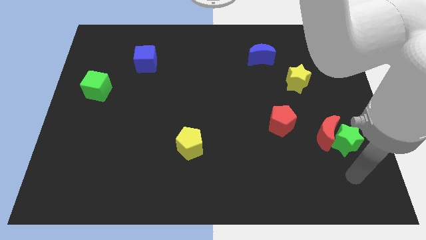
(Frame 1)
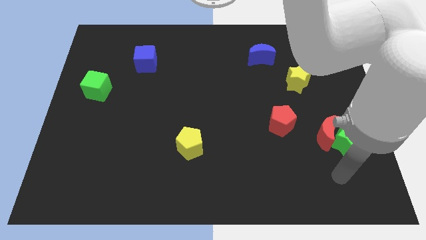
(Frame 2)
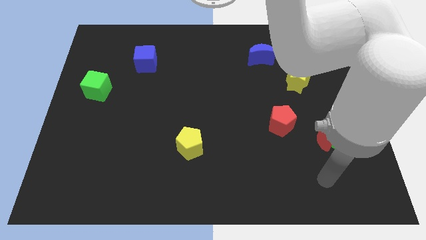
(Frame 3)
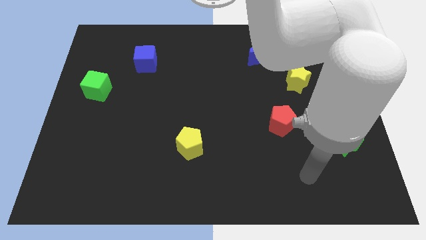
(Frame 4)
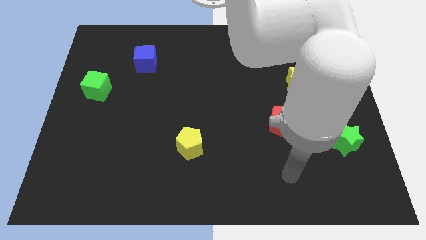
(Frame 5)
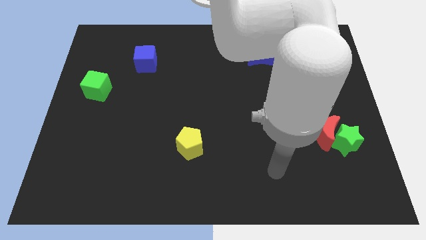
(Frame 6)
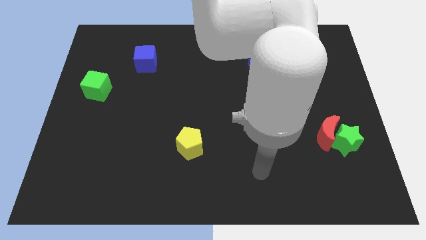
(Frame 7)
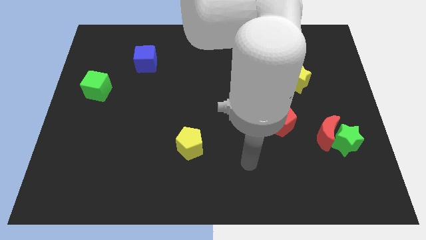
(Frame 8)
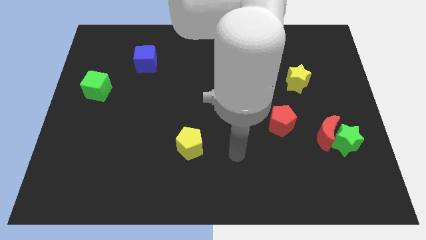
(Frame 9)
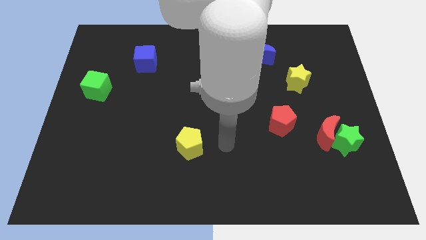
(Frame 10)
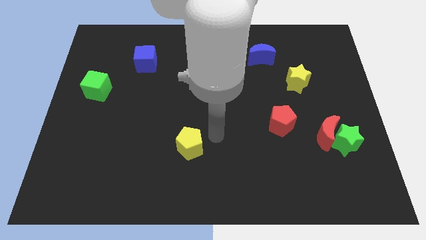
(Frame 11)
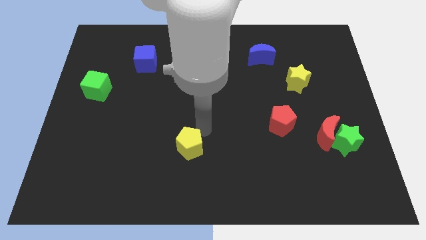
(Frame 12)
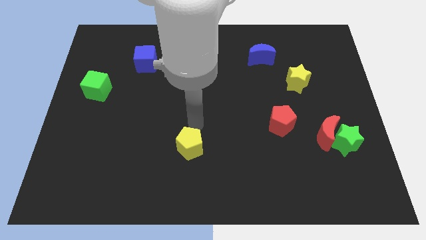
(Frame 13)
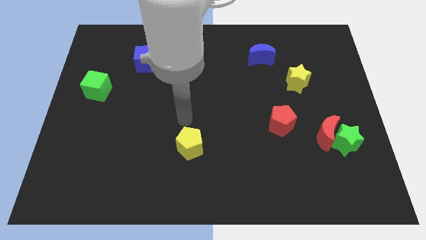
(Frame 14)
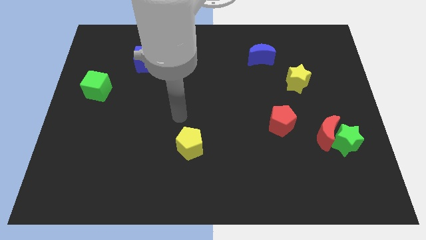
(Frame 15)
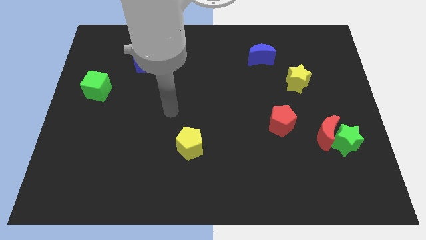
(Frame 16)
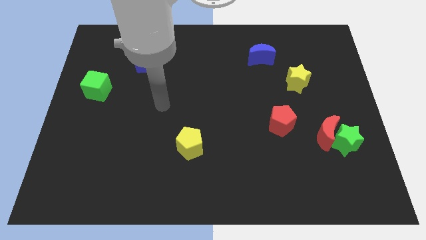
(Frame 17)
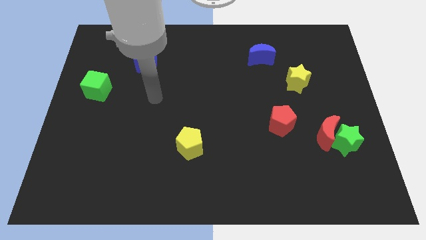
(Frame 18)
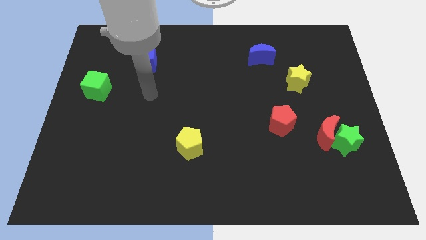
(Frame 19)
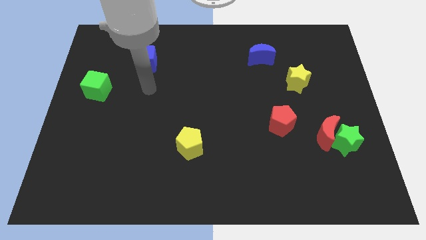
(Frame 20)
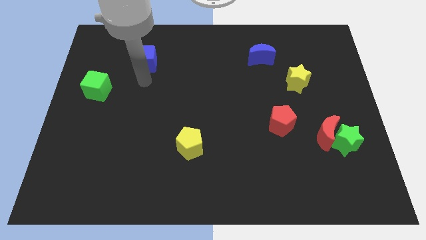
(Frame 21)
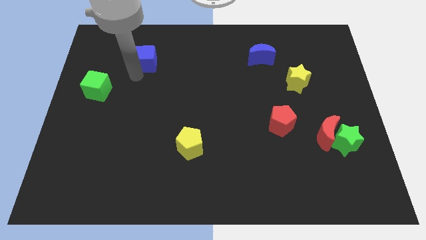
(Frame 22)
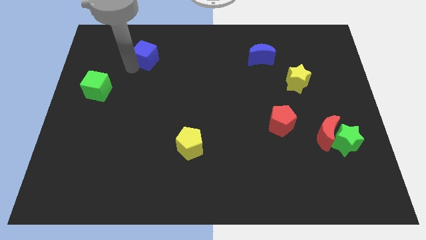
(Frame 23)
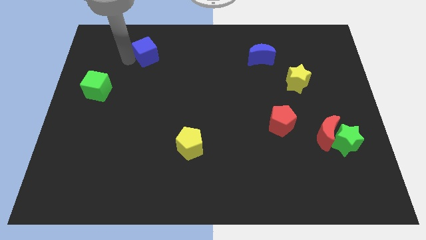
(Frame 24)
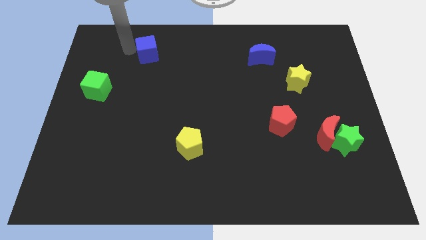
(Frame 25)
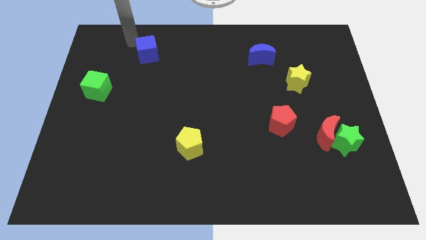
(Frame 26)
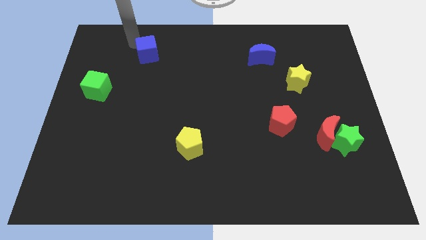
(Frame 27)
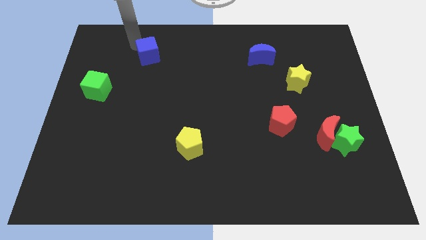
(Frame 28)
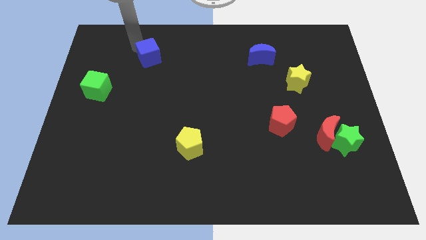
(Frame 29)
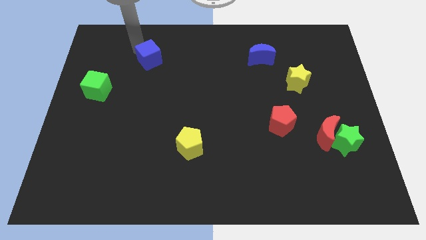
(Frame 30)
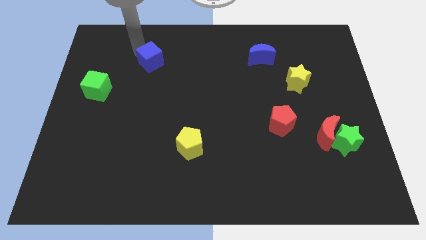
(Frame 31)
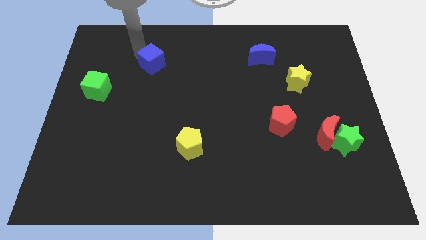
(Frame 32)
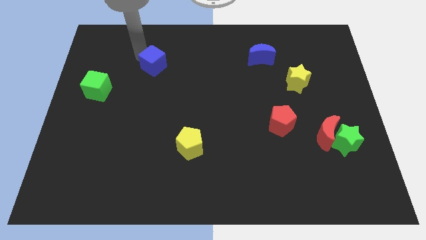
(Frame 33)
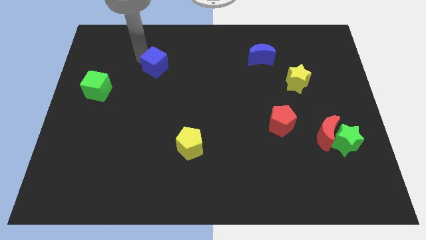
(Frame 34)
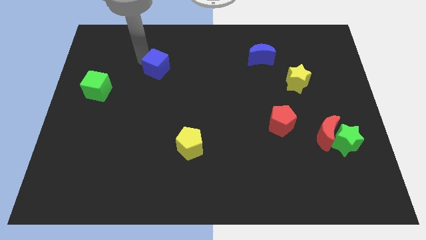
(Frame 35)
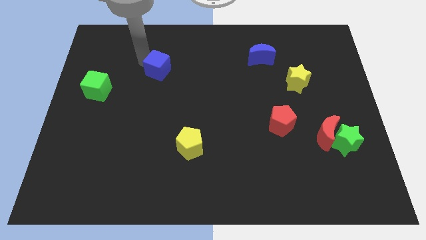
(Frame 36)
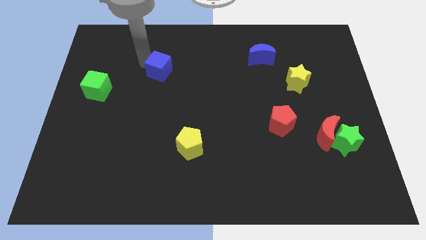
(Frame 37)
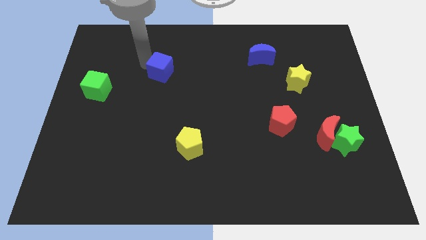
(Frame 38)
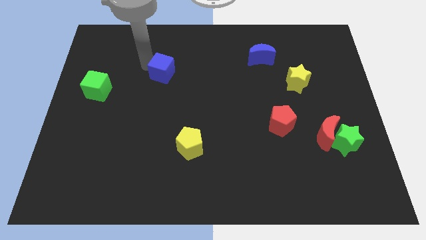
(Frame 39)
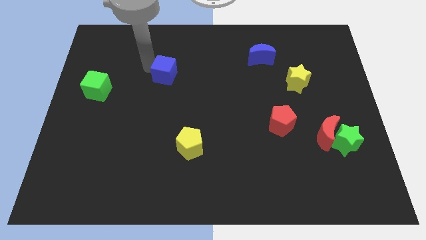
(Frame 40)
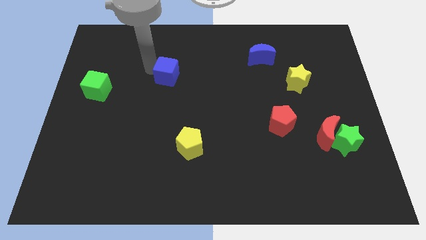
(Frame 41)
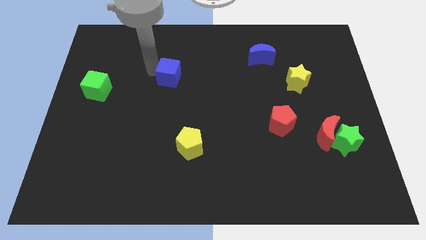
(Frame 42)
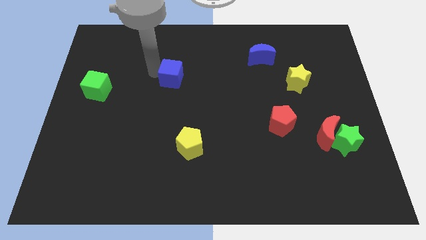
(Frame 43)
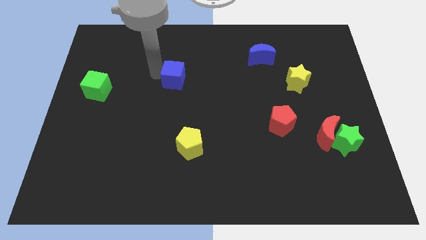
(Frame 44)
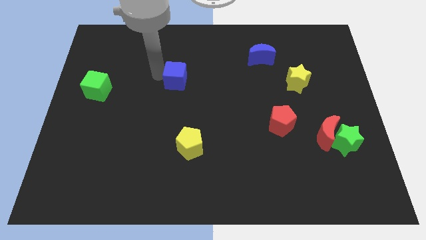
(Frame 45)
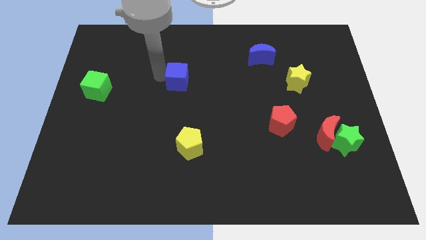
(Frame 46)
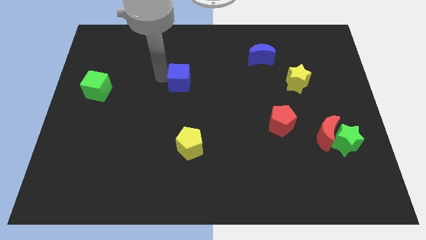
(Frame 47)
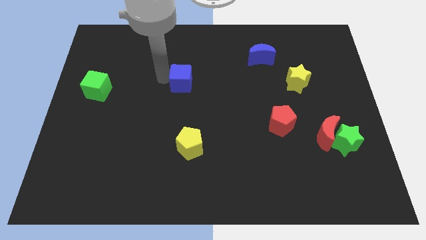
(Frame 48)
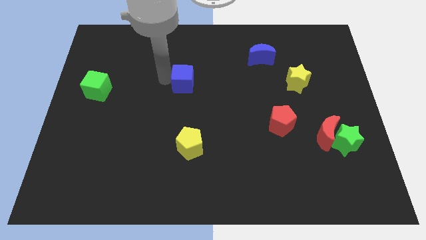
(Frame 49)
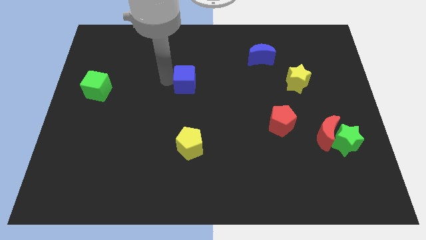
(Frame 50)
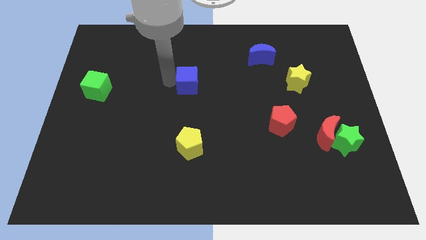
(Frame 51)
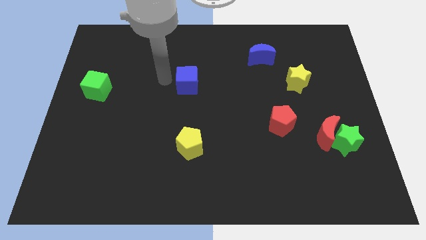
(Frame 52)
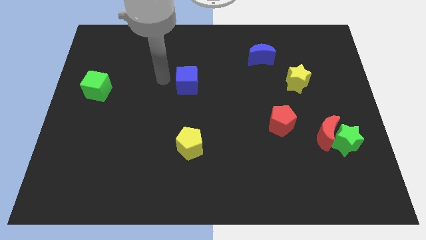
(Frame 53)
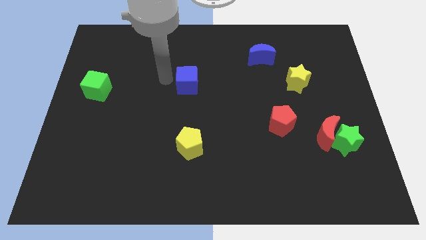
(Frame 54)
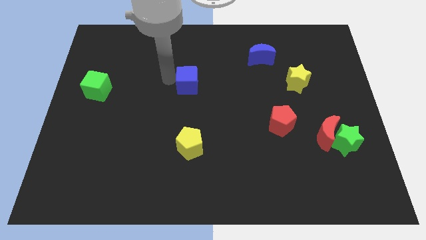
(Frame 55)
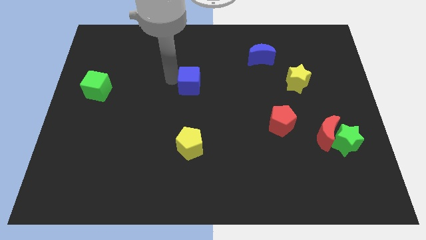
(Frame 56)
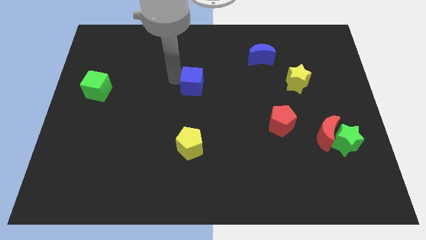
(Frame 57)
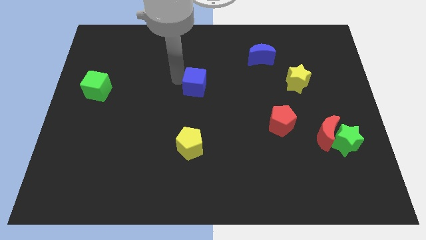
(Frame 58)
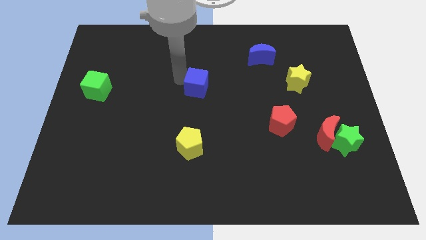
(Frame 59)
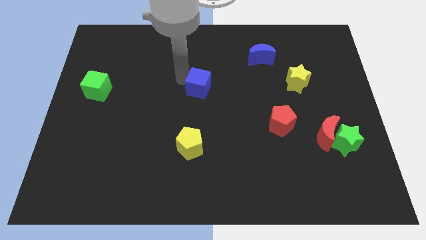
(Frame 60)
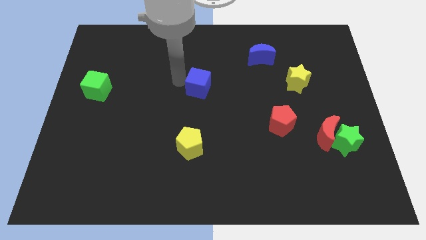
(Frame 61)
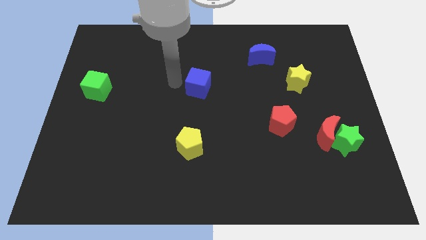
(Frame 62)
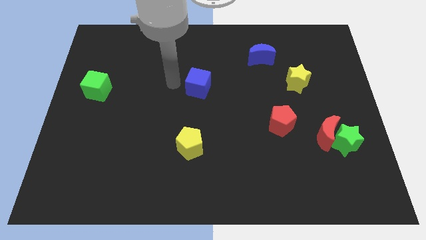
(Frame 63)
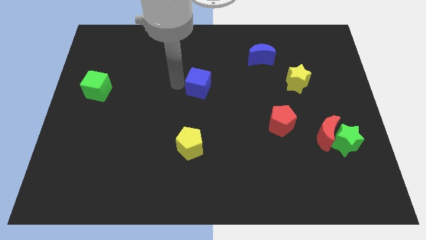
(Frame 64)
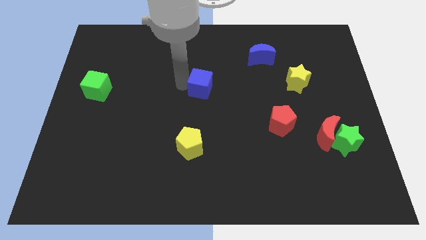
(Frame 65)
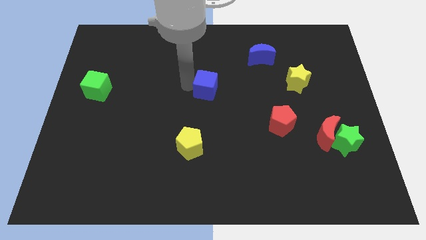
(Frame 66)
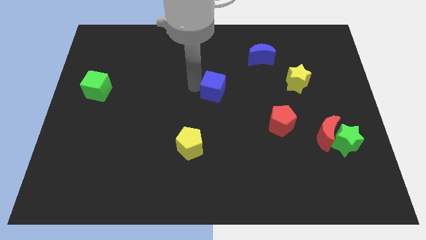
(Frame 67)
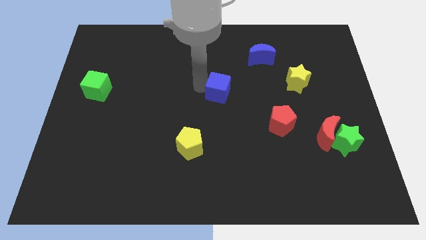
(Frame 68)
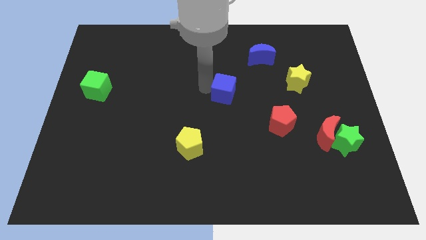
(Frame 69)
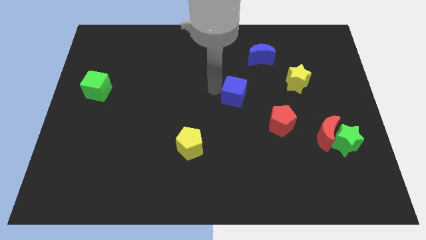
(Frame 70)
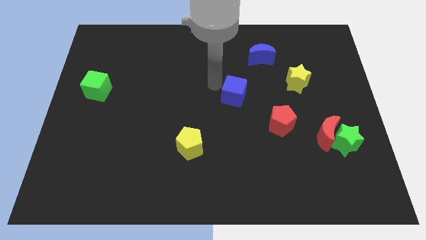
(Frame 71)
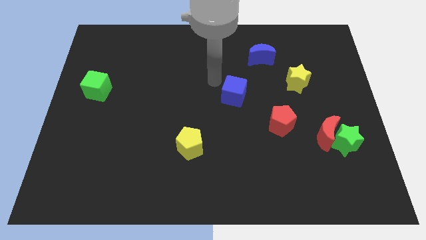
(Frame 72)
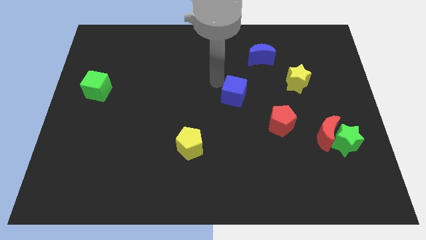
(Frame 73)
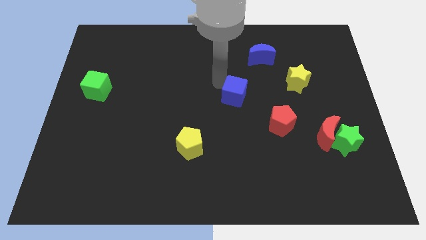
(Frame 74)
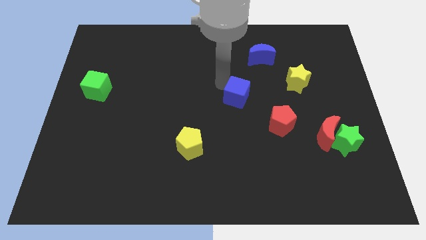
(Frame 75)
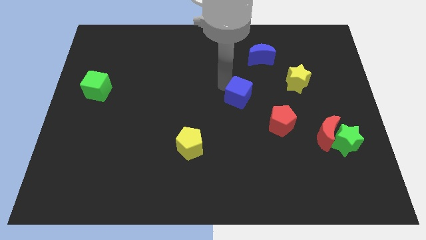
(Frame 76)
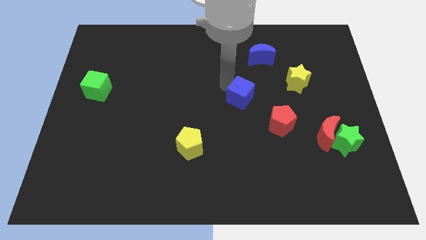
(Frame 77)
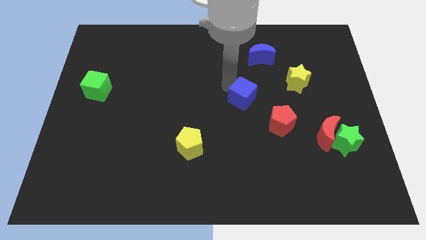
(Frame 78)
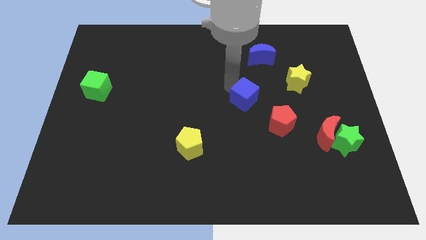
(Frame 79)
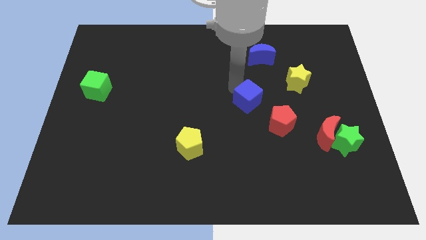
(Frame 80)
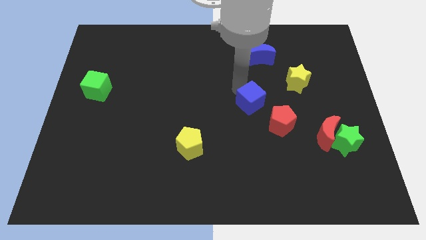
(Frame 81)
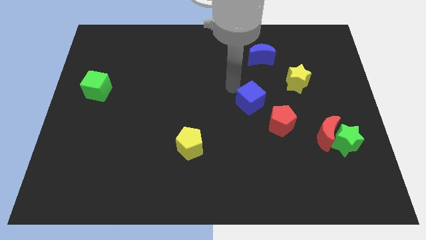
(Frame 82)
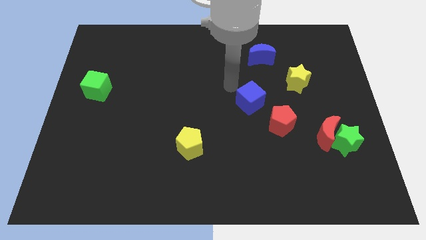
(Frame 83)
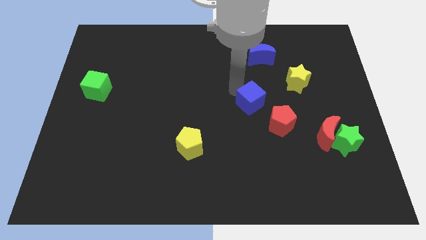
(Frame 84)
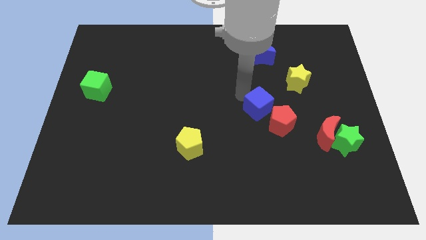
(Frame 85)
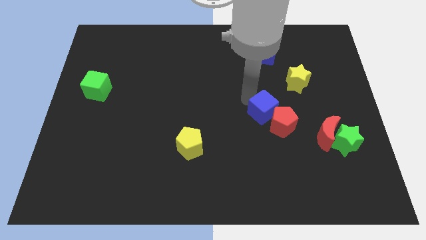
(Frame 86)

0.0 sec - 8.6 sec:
move the blue cube close to the red pentagon
